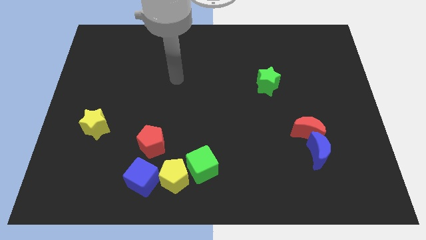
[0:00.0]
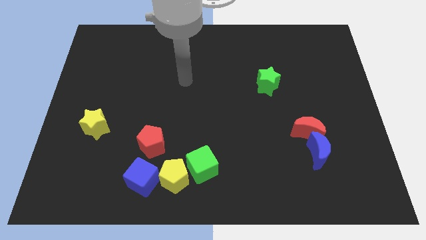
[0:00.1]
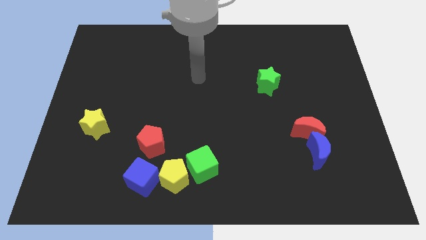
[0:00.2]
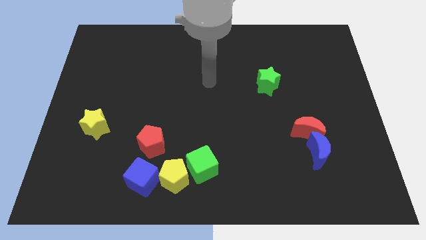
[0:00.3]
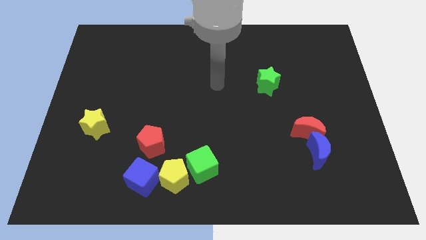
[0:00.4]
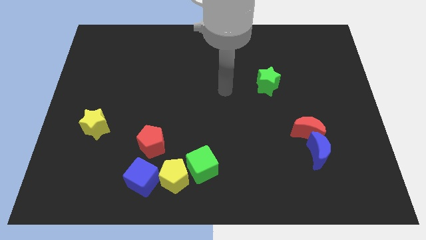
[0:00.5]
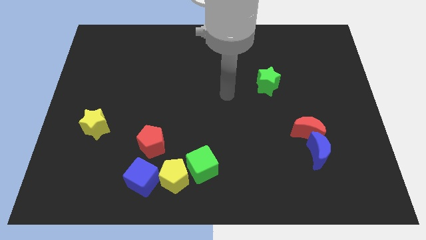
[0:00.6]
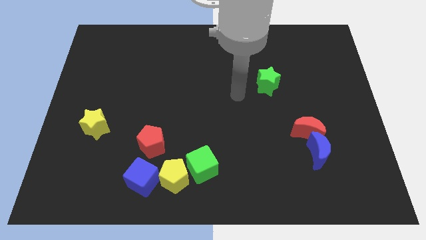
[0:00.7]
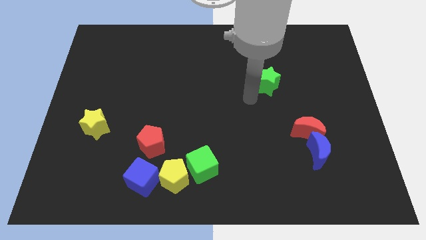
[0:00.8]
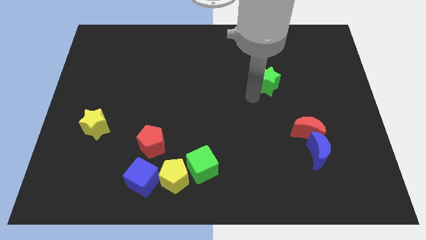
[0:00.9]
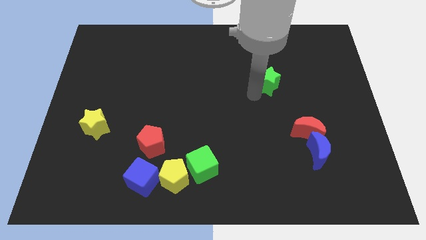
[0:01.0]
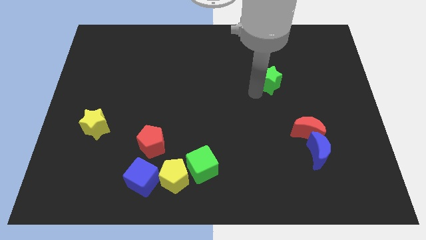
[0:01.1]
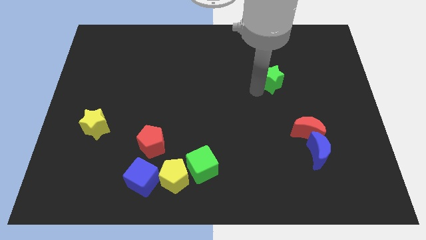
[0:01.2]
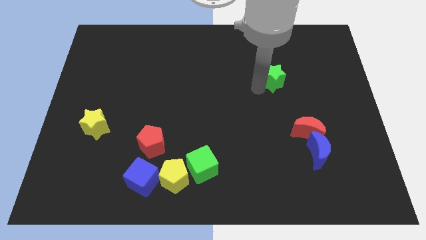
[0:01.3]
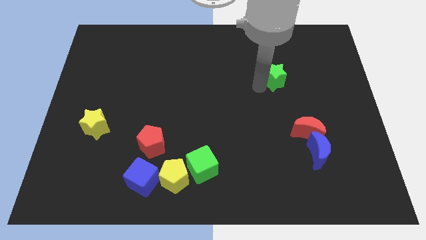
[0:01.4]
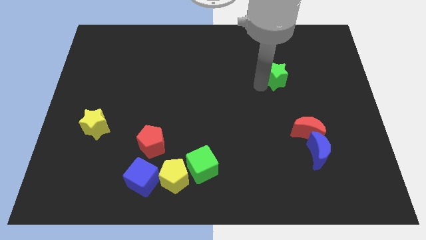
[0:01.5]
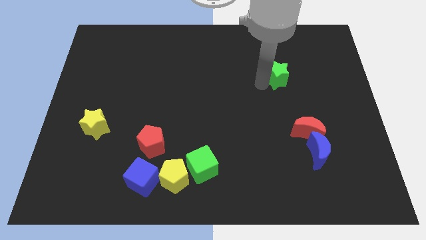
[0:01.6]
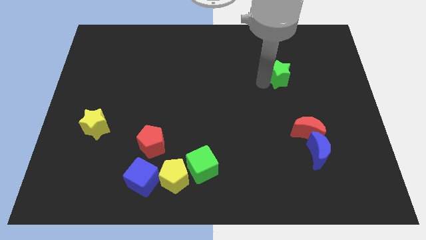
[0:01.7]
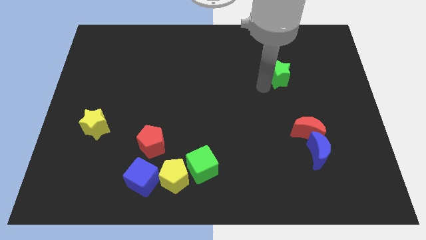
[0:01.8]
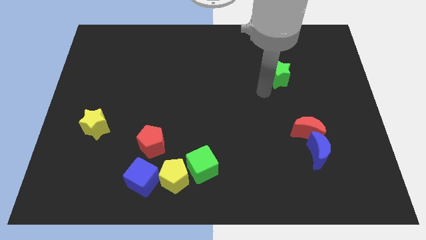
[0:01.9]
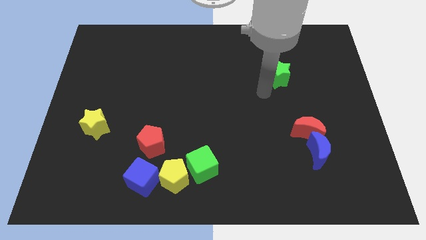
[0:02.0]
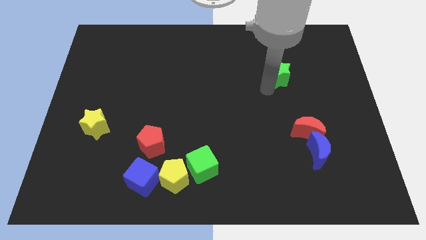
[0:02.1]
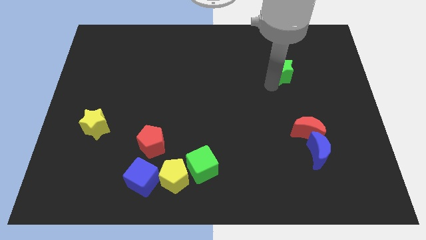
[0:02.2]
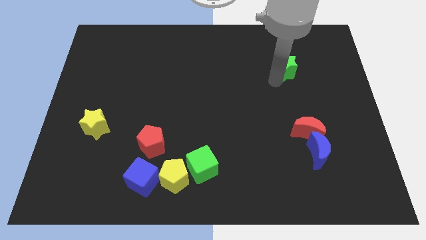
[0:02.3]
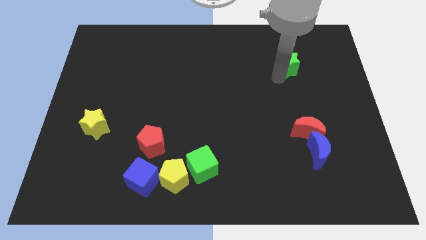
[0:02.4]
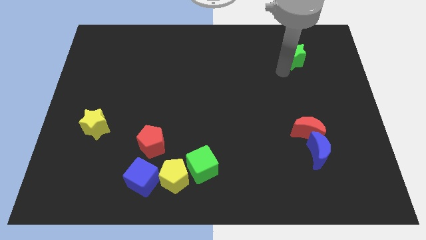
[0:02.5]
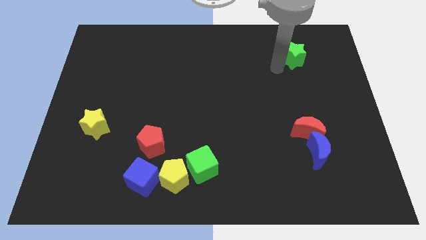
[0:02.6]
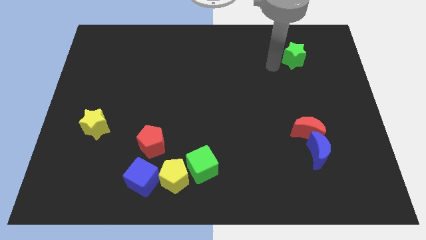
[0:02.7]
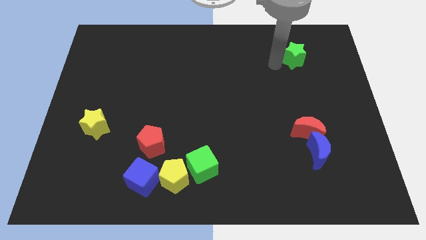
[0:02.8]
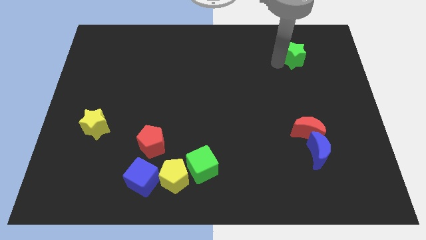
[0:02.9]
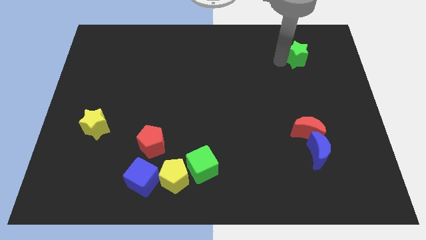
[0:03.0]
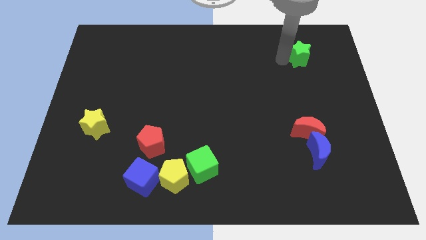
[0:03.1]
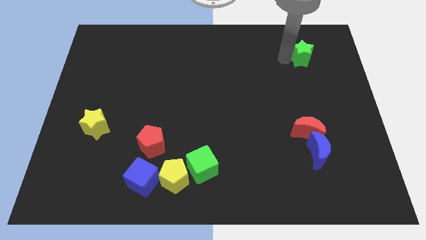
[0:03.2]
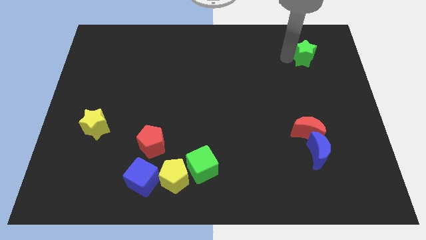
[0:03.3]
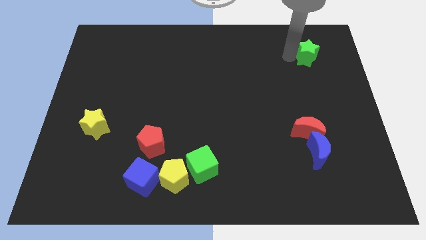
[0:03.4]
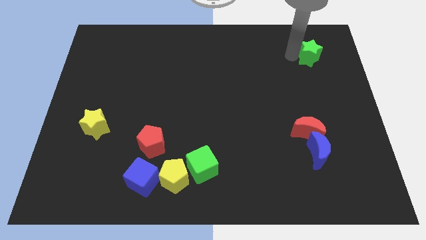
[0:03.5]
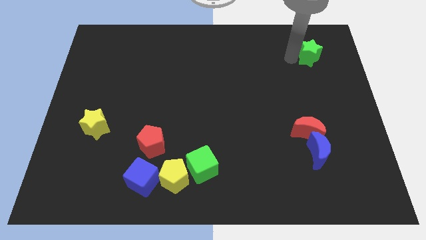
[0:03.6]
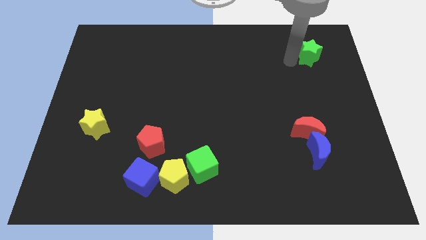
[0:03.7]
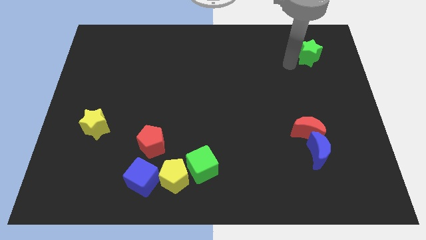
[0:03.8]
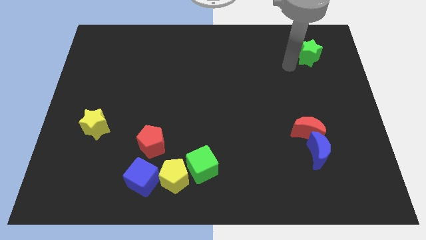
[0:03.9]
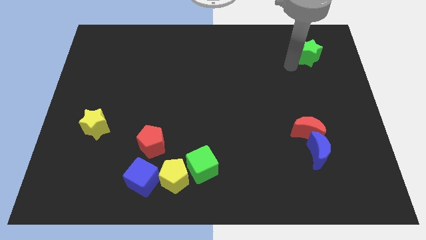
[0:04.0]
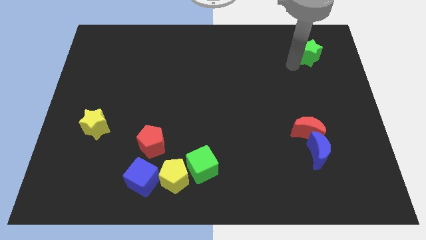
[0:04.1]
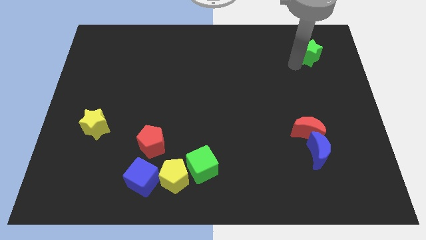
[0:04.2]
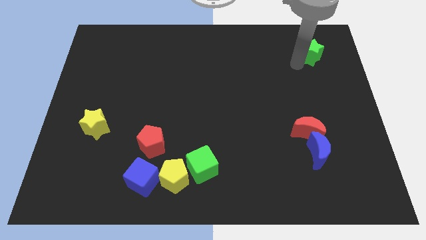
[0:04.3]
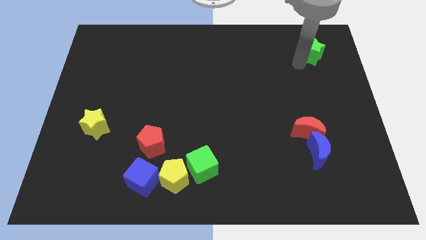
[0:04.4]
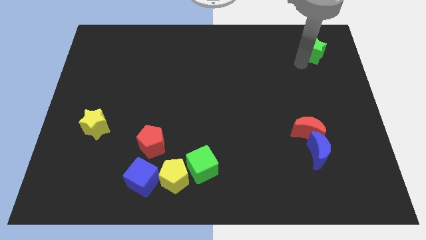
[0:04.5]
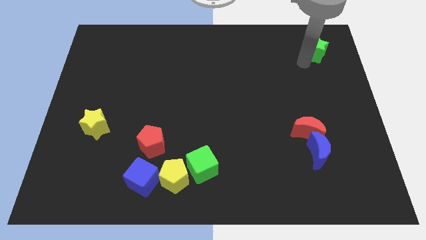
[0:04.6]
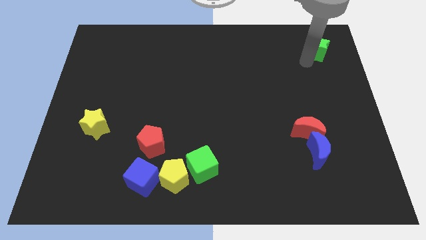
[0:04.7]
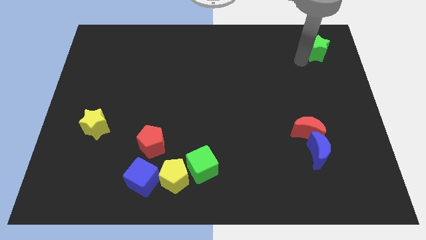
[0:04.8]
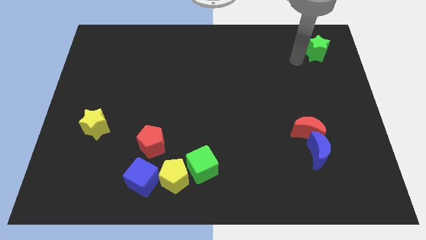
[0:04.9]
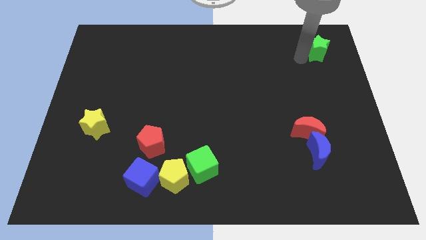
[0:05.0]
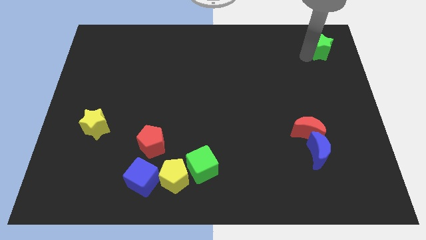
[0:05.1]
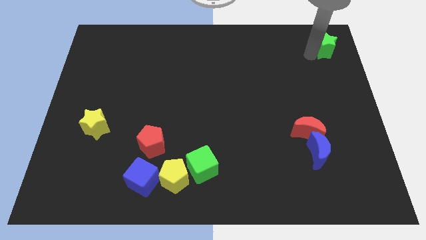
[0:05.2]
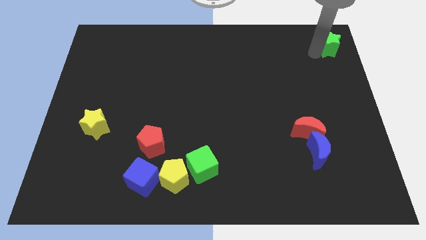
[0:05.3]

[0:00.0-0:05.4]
move the green star to the upper right corner
